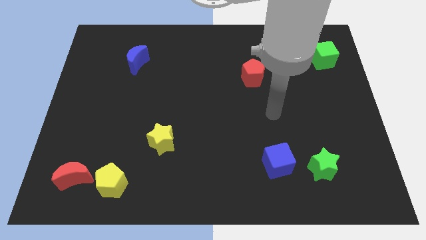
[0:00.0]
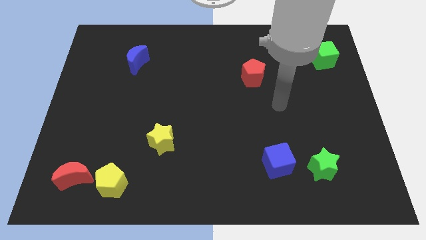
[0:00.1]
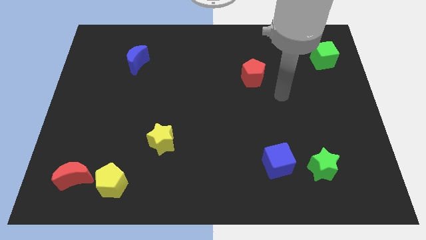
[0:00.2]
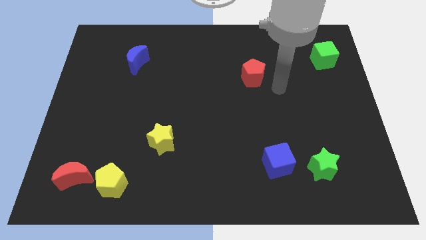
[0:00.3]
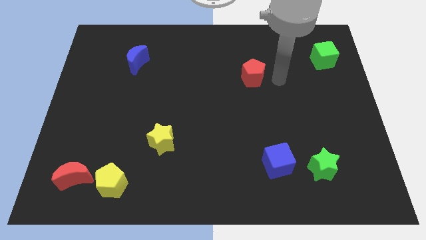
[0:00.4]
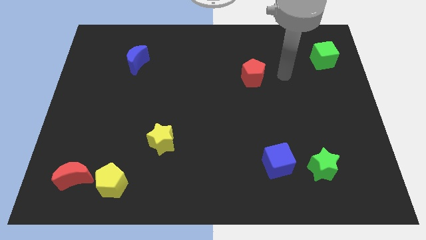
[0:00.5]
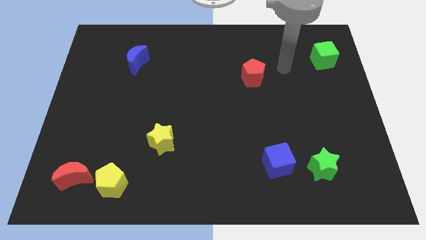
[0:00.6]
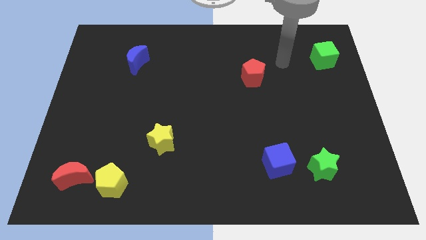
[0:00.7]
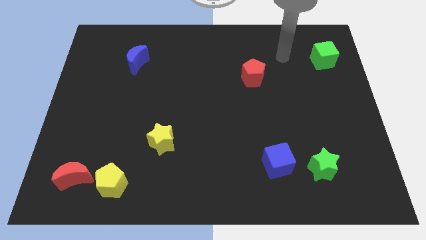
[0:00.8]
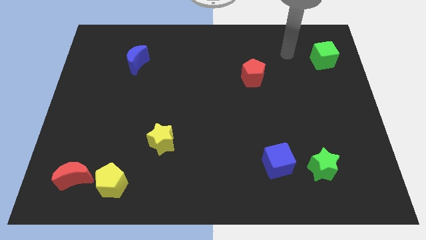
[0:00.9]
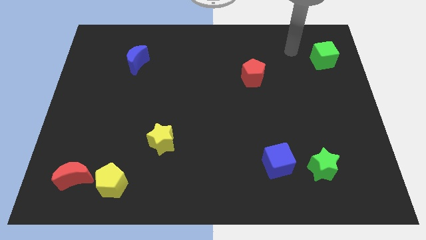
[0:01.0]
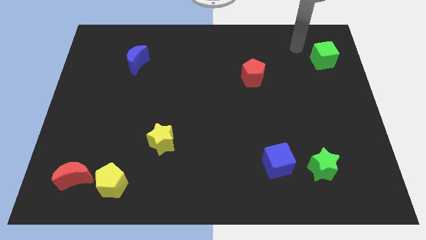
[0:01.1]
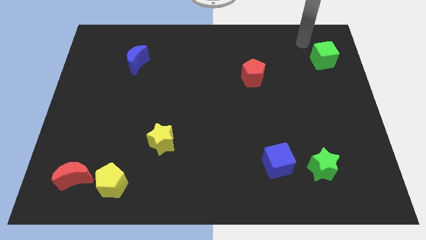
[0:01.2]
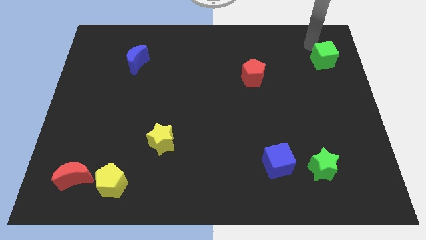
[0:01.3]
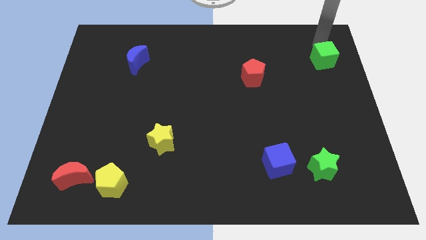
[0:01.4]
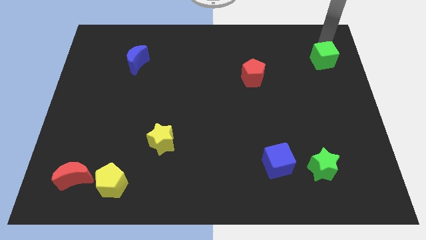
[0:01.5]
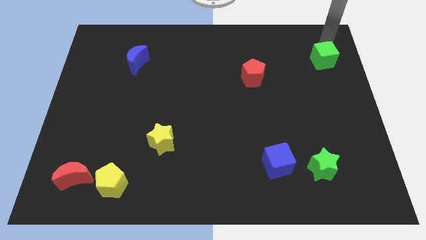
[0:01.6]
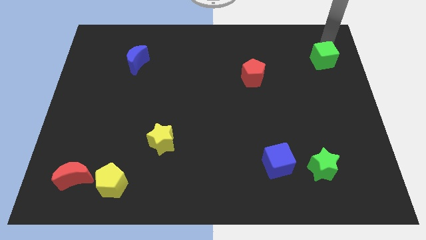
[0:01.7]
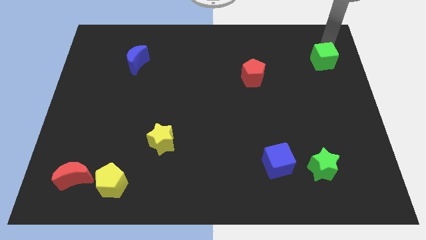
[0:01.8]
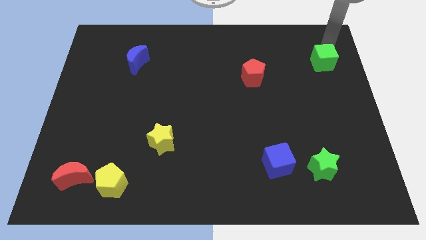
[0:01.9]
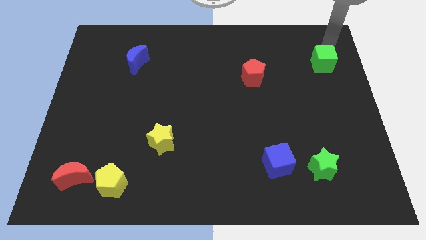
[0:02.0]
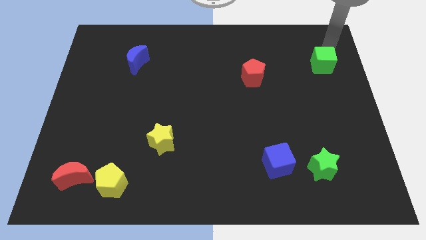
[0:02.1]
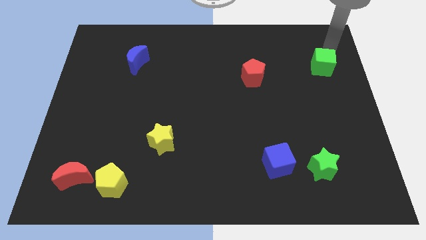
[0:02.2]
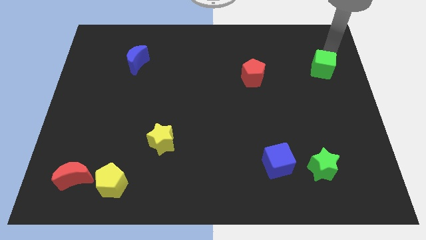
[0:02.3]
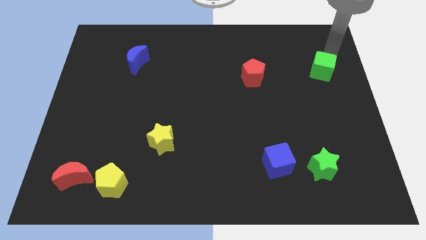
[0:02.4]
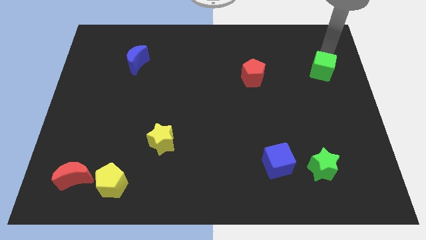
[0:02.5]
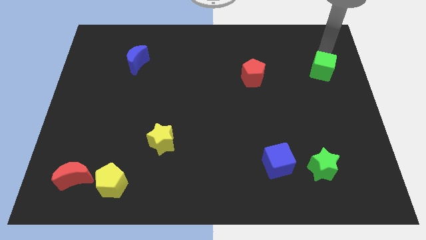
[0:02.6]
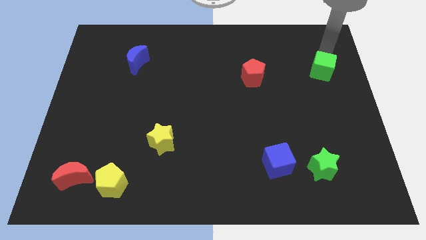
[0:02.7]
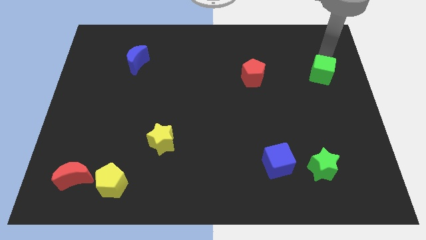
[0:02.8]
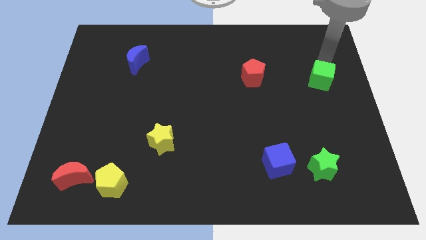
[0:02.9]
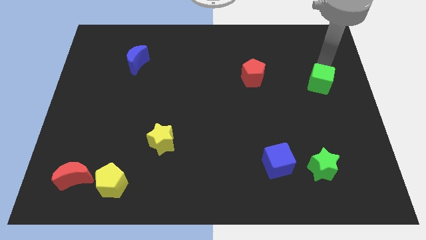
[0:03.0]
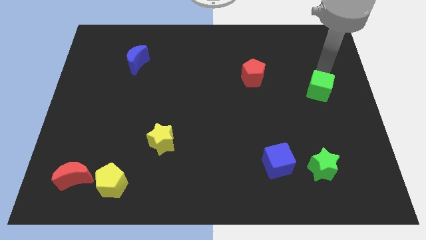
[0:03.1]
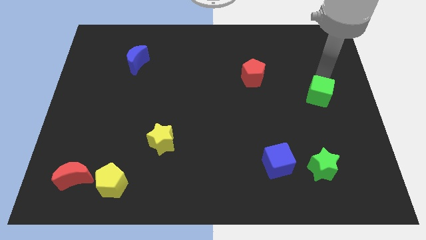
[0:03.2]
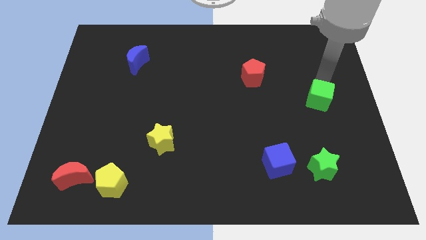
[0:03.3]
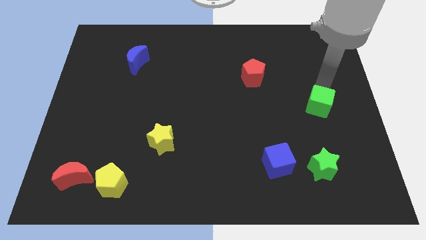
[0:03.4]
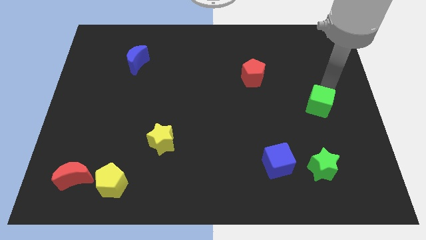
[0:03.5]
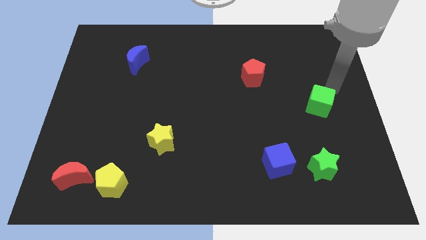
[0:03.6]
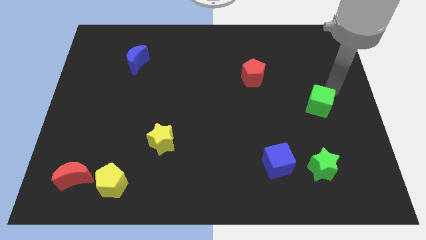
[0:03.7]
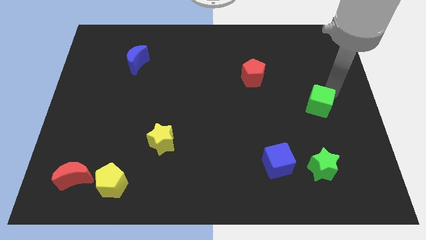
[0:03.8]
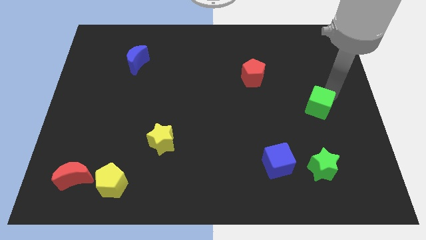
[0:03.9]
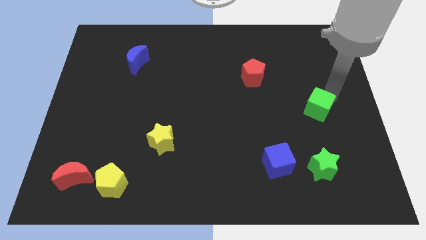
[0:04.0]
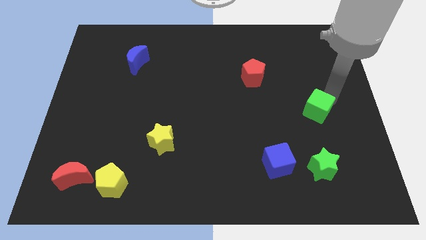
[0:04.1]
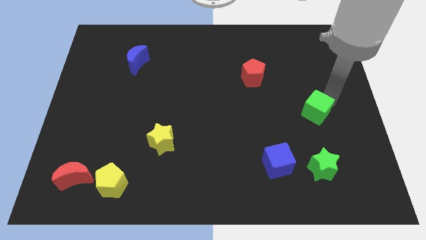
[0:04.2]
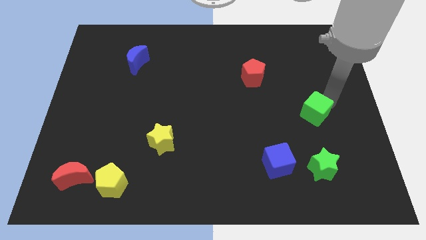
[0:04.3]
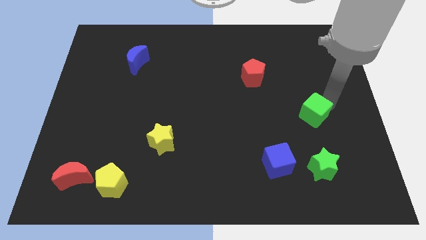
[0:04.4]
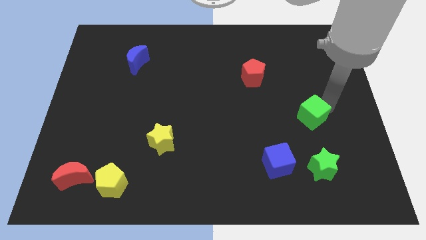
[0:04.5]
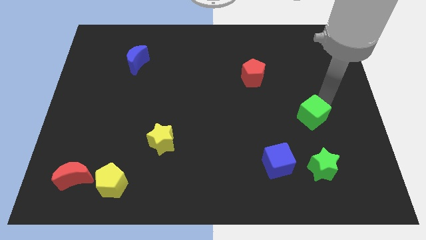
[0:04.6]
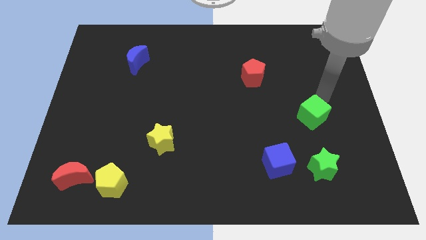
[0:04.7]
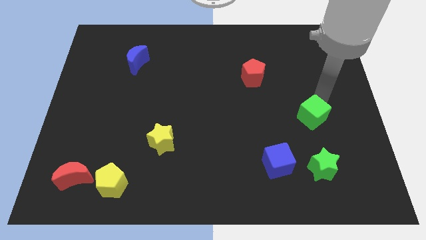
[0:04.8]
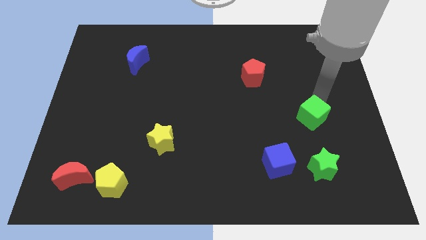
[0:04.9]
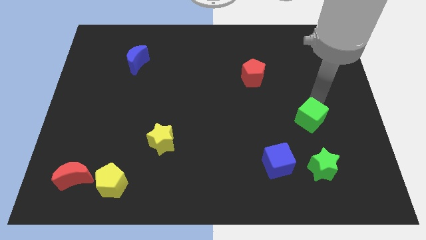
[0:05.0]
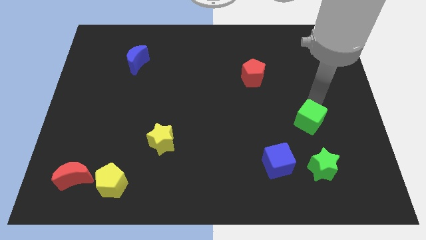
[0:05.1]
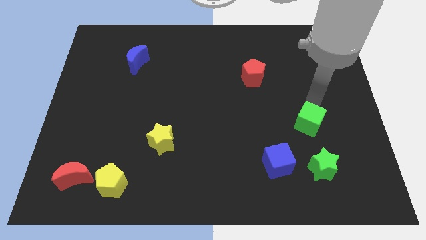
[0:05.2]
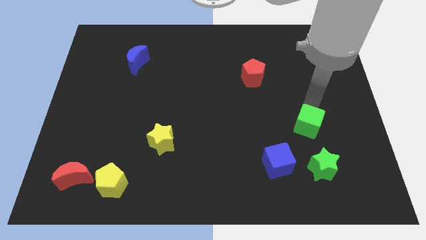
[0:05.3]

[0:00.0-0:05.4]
push the green cube diagonally up and to the right of the blue cube

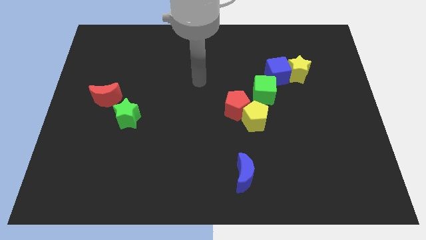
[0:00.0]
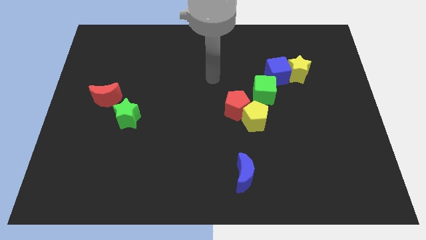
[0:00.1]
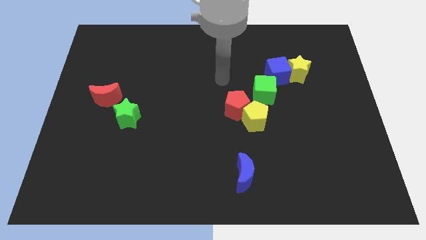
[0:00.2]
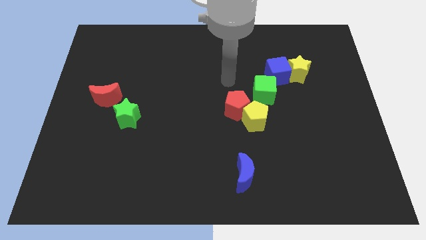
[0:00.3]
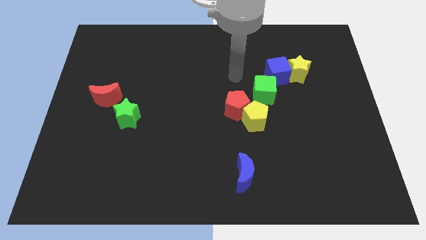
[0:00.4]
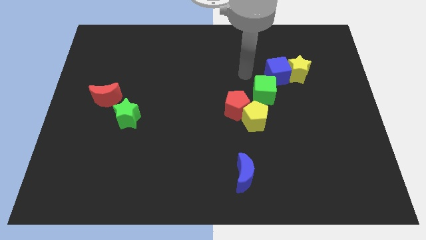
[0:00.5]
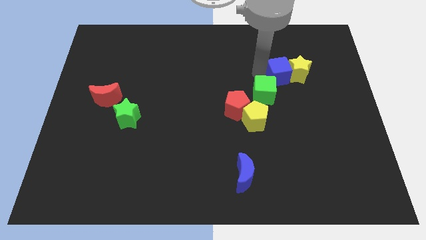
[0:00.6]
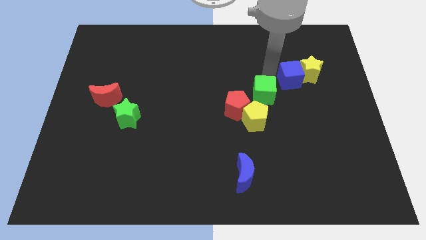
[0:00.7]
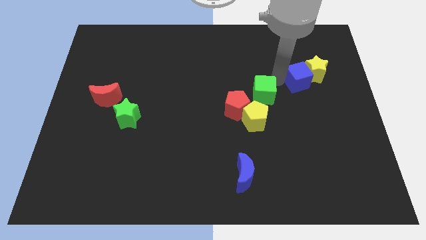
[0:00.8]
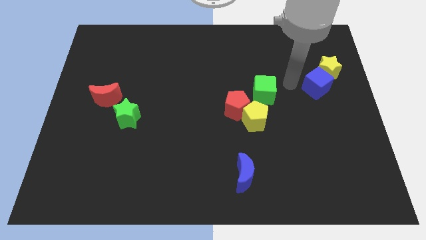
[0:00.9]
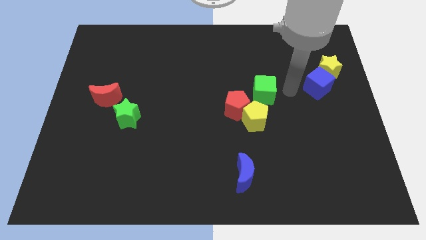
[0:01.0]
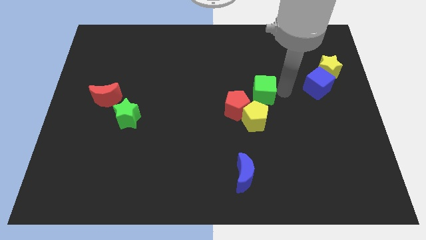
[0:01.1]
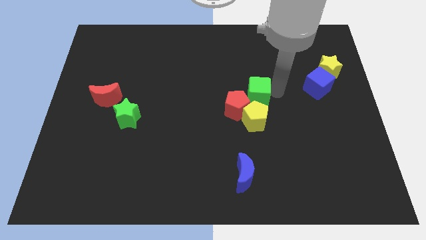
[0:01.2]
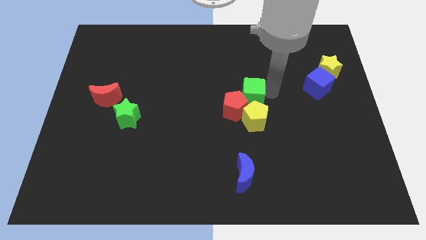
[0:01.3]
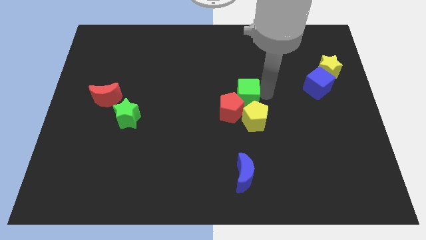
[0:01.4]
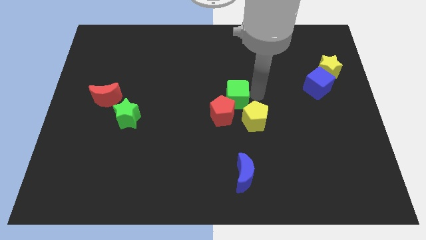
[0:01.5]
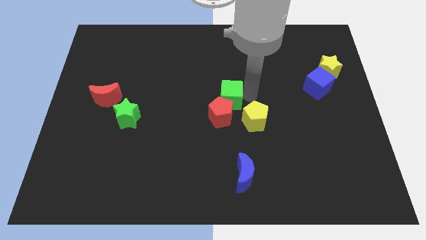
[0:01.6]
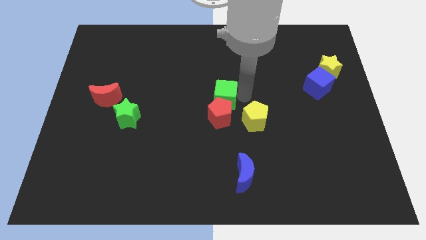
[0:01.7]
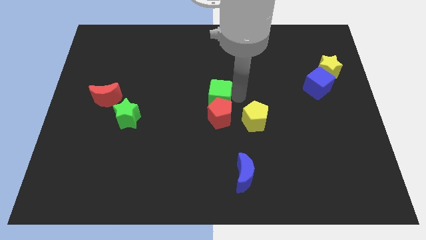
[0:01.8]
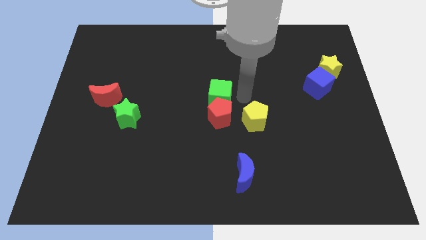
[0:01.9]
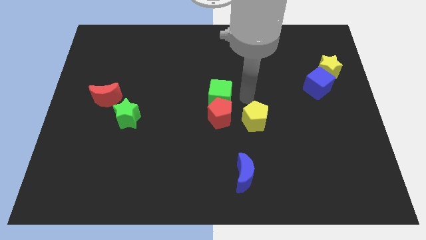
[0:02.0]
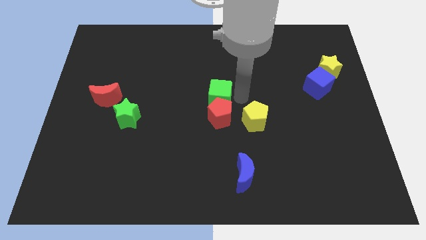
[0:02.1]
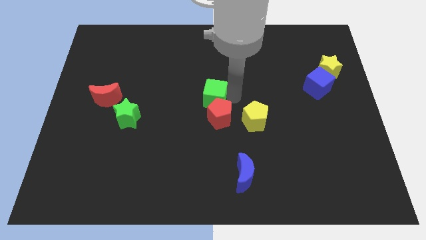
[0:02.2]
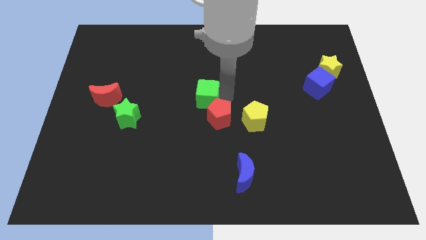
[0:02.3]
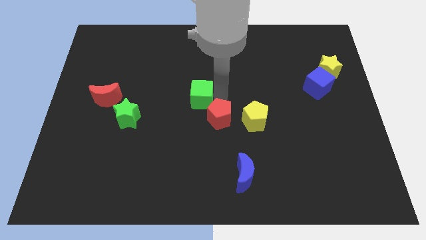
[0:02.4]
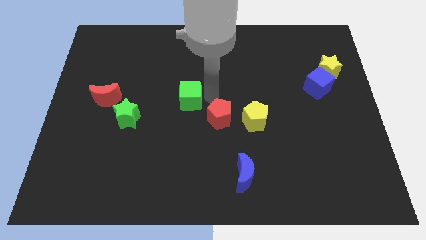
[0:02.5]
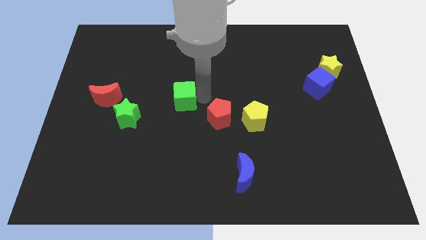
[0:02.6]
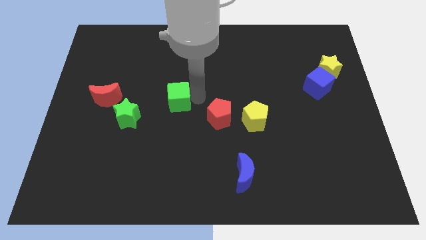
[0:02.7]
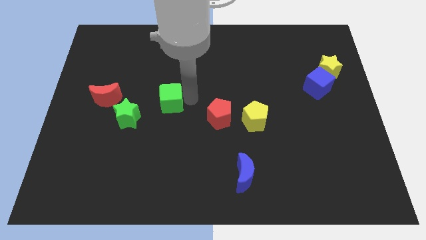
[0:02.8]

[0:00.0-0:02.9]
move the green cube right of the red moon
